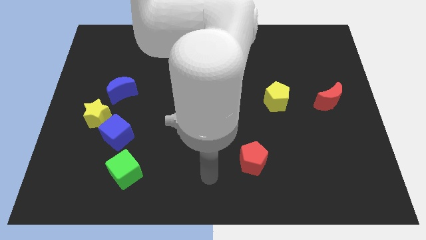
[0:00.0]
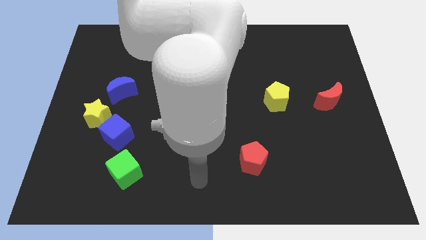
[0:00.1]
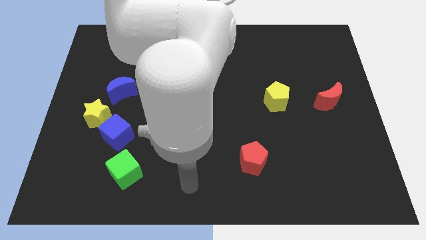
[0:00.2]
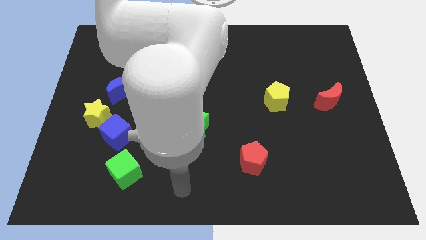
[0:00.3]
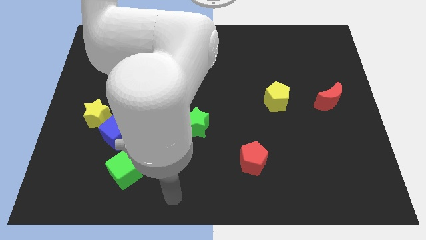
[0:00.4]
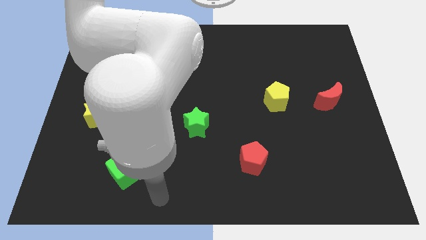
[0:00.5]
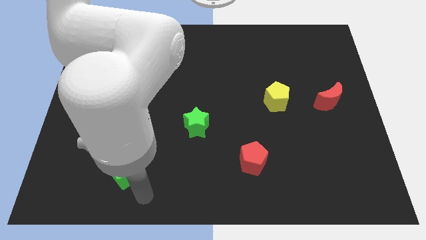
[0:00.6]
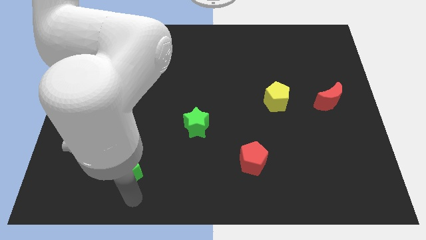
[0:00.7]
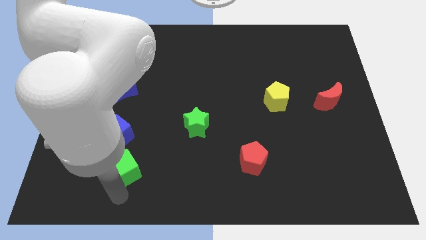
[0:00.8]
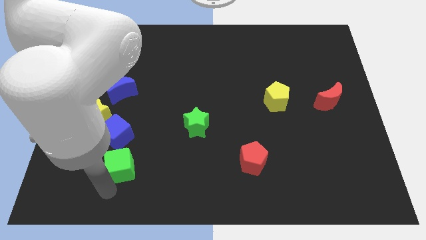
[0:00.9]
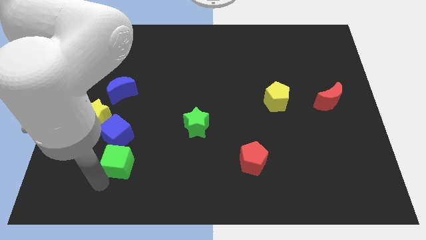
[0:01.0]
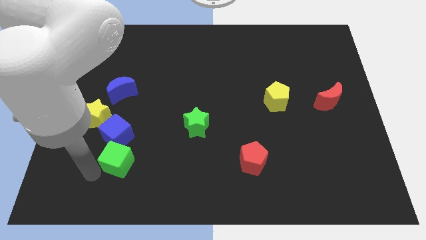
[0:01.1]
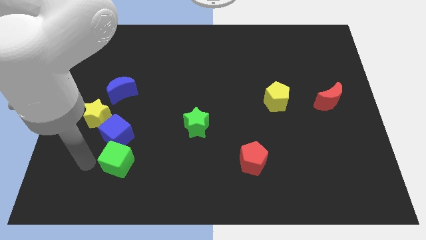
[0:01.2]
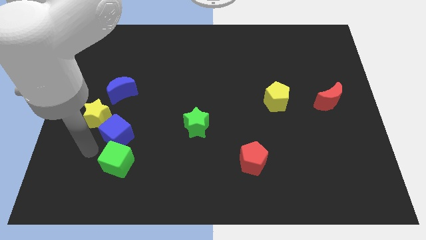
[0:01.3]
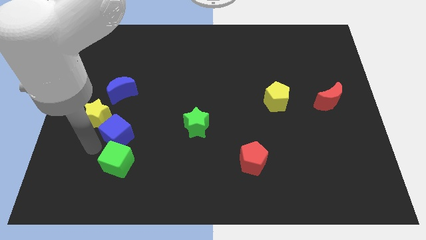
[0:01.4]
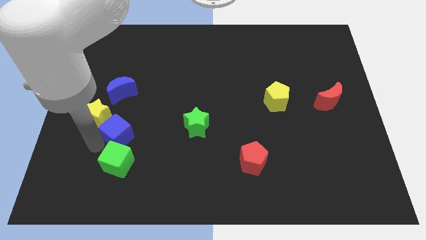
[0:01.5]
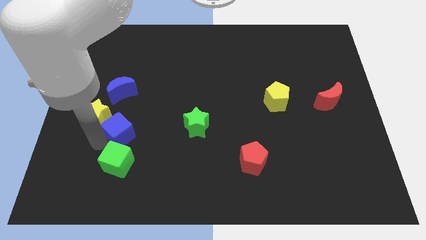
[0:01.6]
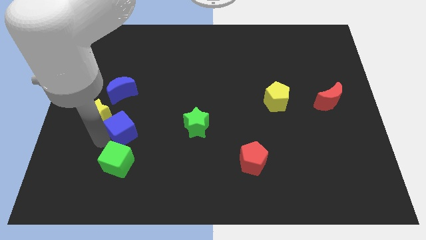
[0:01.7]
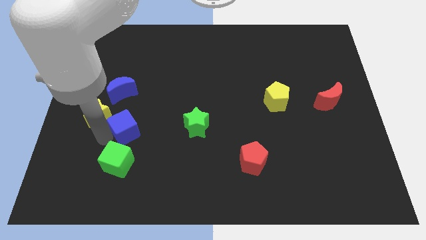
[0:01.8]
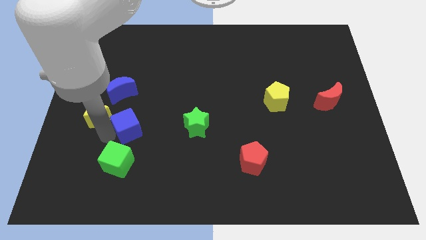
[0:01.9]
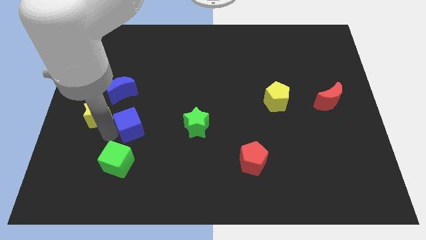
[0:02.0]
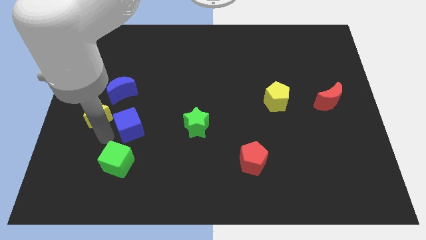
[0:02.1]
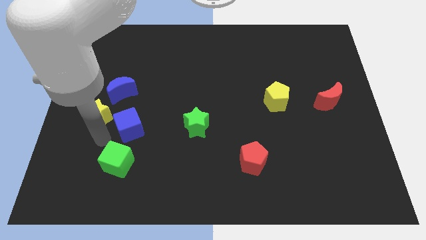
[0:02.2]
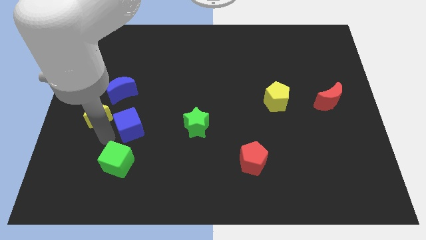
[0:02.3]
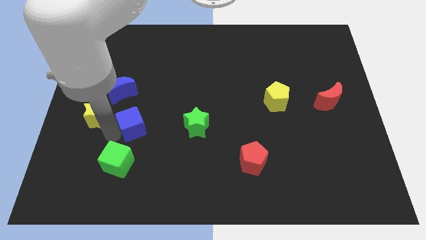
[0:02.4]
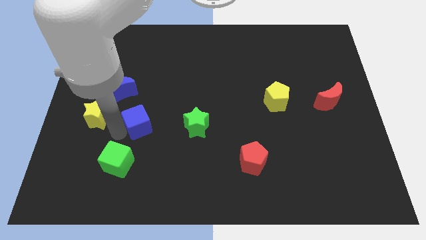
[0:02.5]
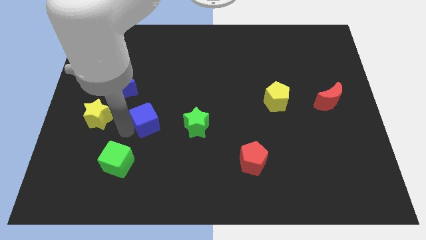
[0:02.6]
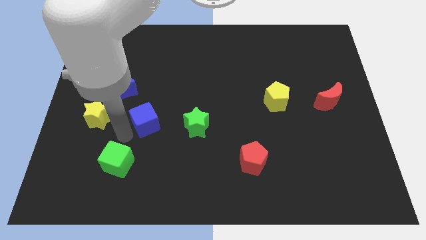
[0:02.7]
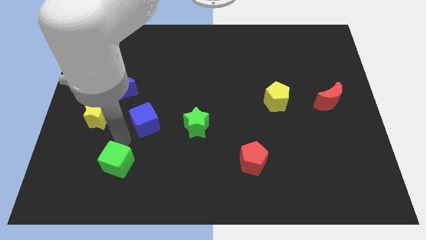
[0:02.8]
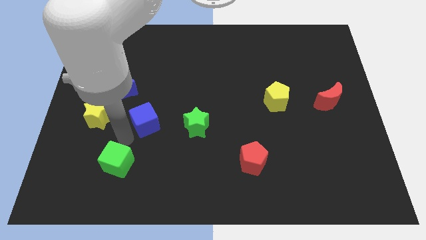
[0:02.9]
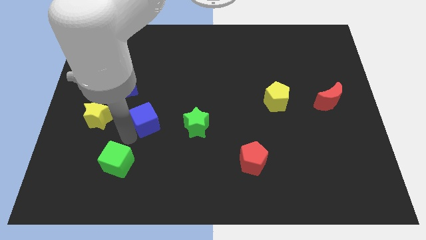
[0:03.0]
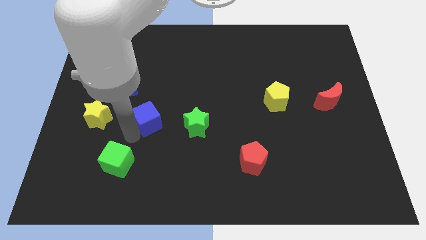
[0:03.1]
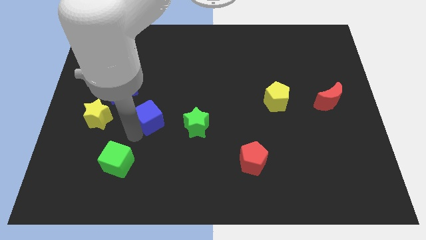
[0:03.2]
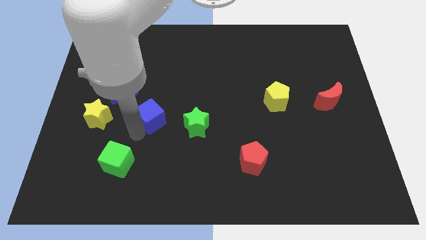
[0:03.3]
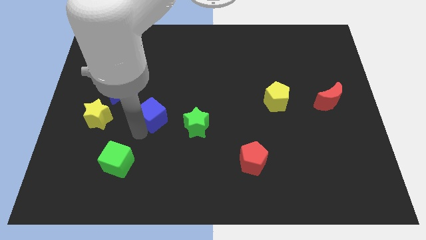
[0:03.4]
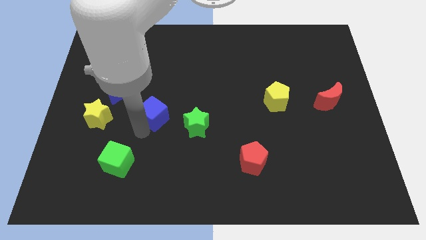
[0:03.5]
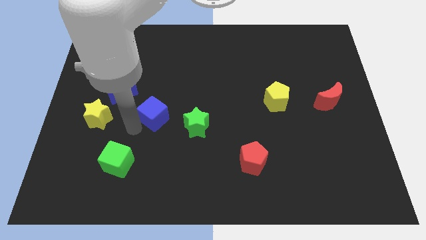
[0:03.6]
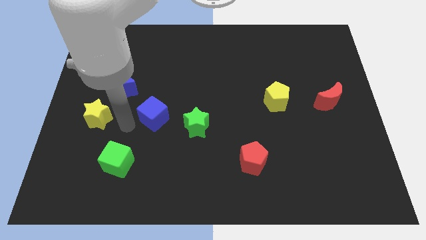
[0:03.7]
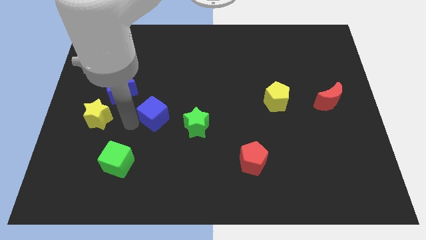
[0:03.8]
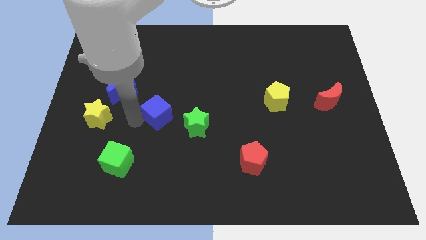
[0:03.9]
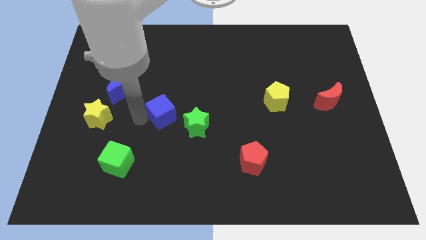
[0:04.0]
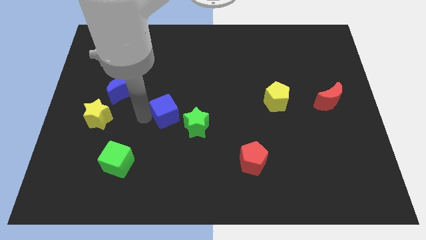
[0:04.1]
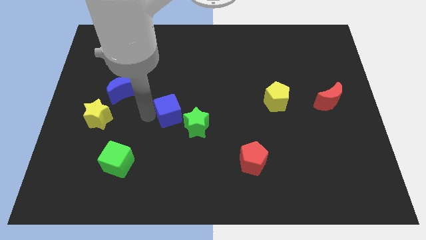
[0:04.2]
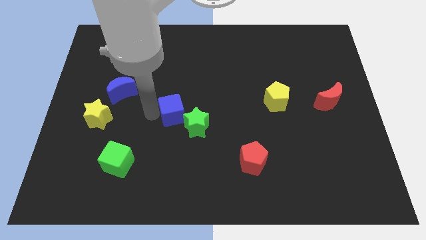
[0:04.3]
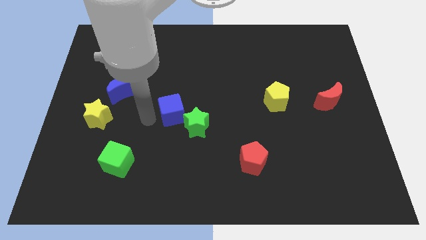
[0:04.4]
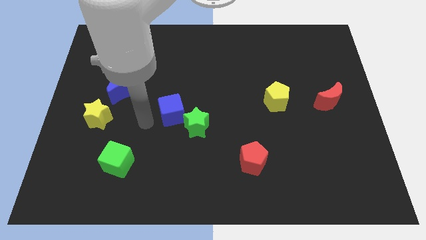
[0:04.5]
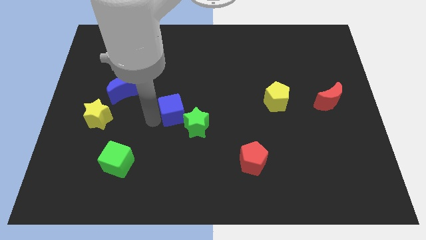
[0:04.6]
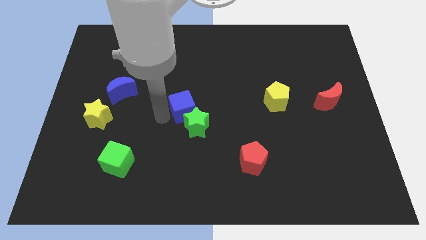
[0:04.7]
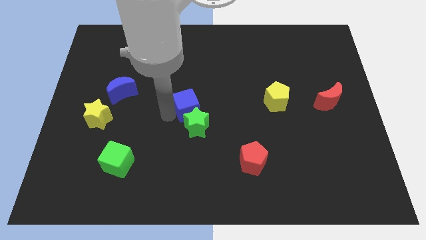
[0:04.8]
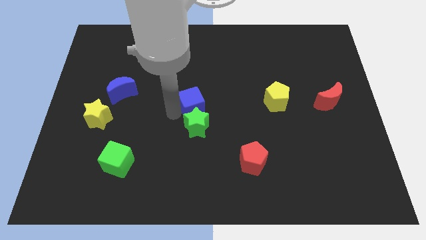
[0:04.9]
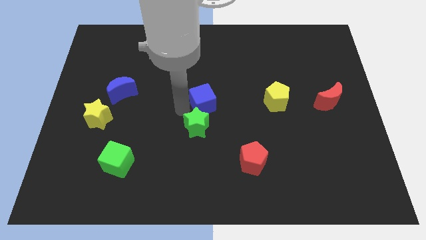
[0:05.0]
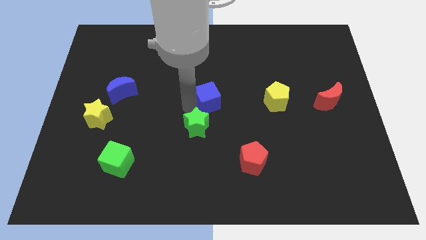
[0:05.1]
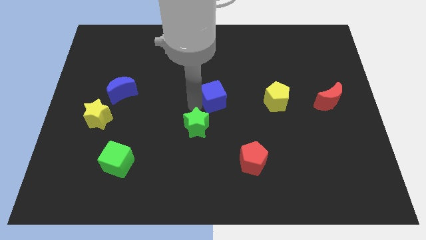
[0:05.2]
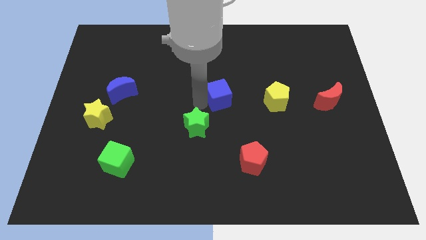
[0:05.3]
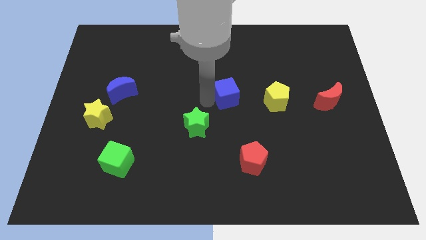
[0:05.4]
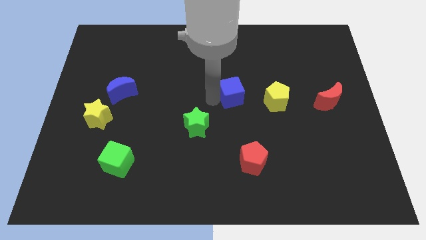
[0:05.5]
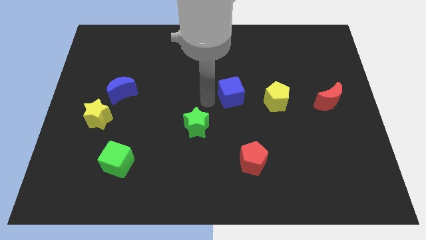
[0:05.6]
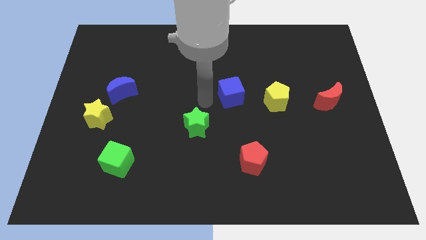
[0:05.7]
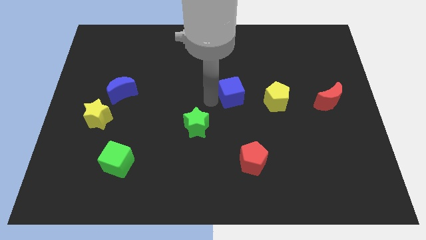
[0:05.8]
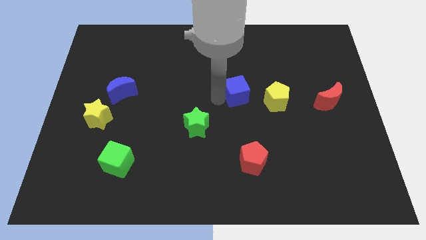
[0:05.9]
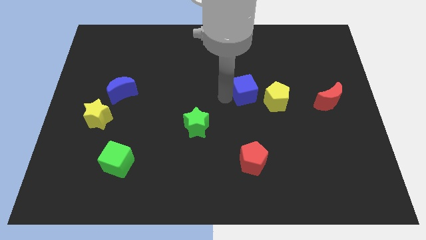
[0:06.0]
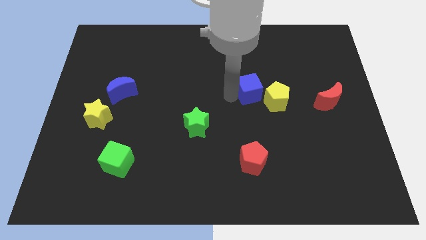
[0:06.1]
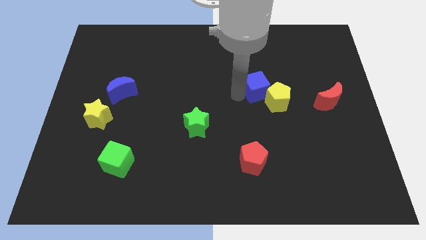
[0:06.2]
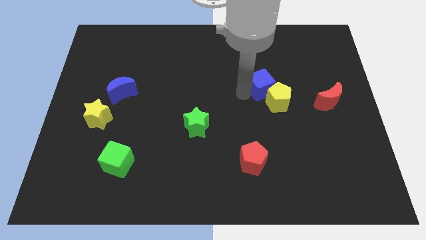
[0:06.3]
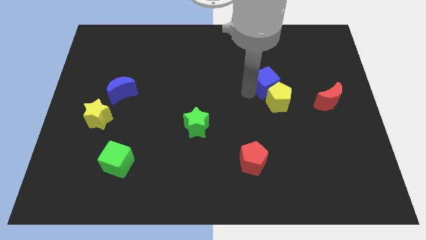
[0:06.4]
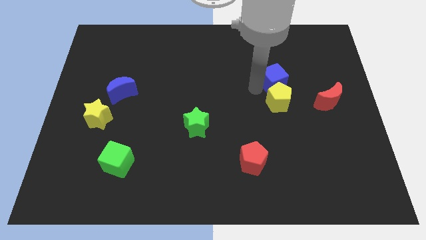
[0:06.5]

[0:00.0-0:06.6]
push the blue cube diagonally up and to the right of the yellow pentagon

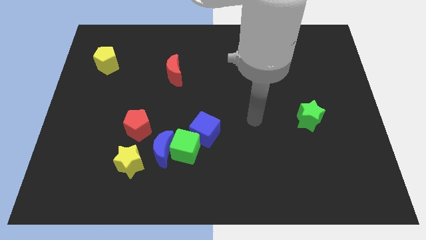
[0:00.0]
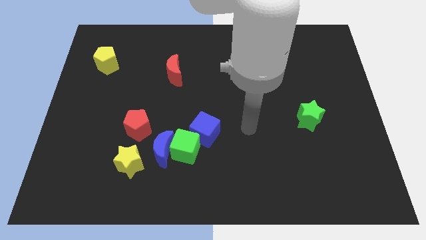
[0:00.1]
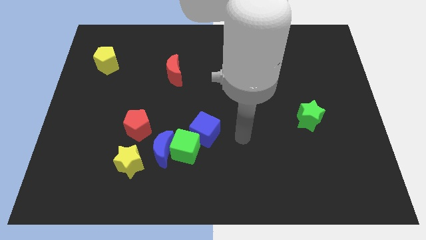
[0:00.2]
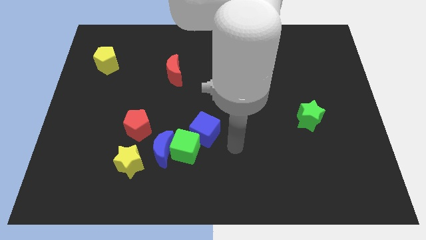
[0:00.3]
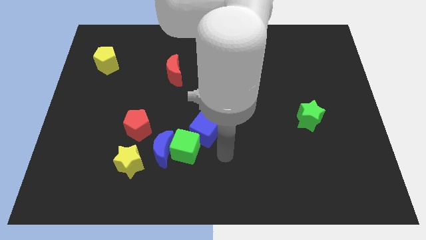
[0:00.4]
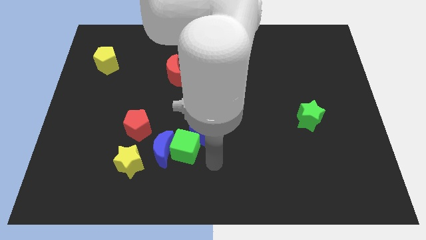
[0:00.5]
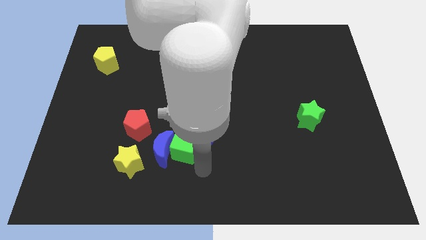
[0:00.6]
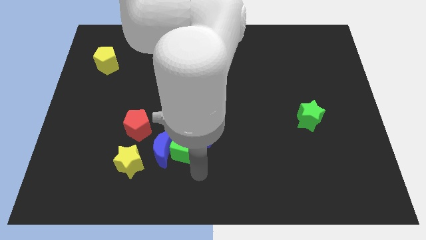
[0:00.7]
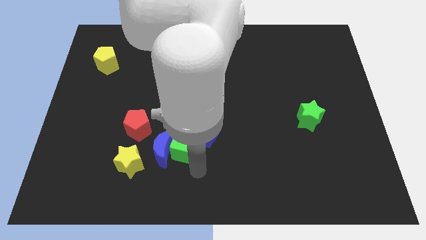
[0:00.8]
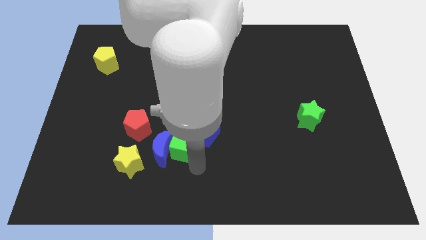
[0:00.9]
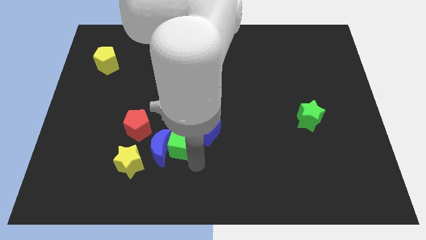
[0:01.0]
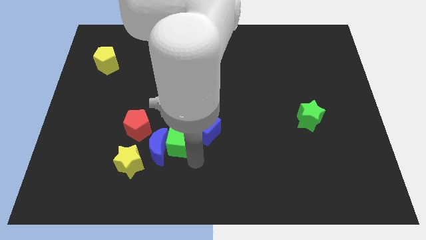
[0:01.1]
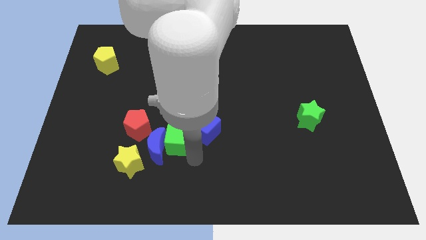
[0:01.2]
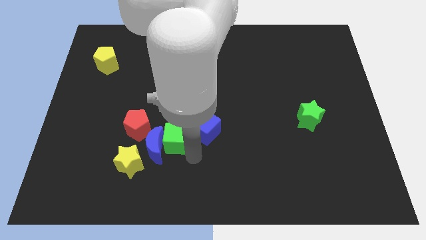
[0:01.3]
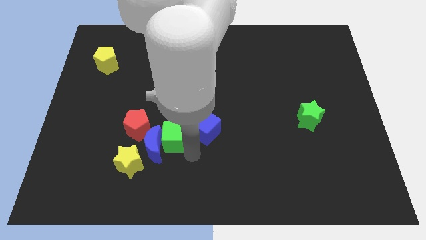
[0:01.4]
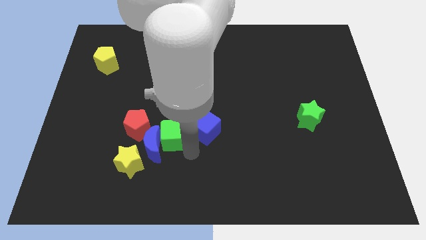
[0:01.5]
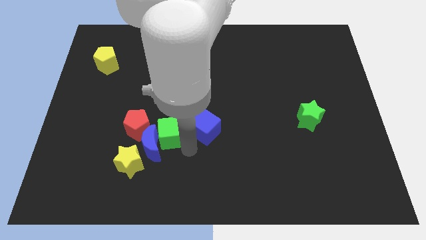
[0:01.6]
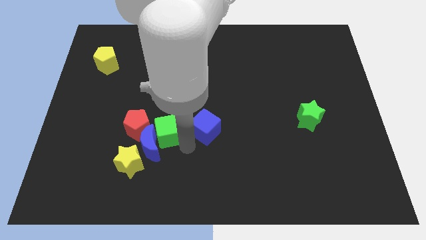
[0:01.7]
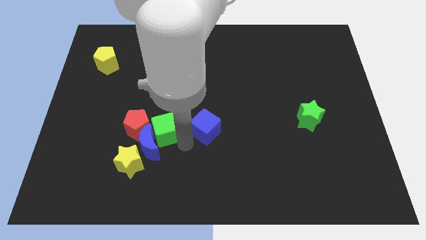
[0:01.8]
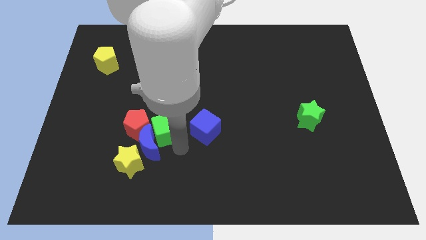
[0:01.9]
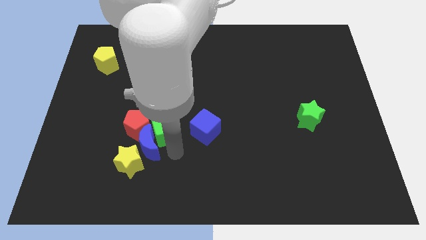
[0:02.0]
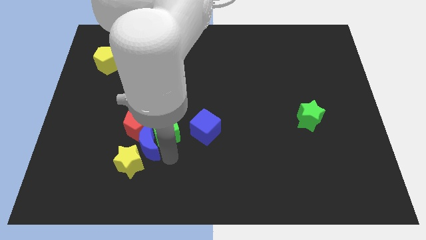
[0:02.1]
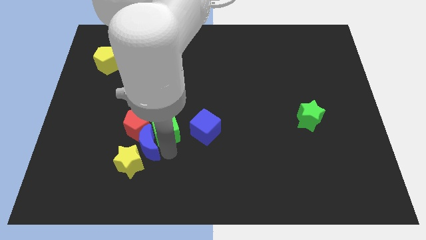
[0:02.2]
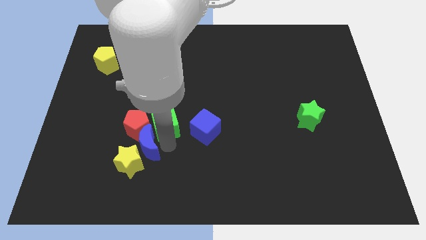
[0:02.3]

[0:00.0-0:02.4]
push the green cube to the top right side of the red pentagon
